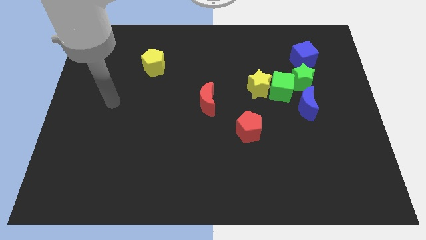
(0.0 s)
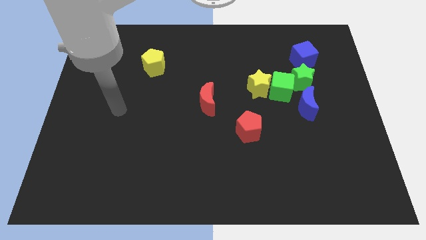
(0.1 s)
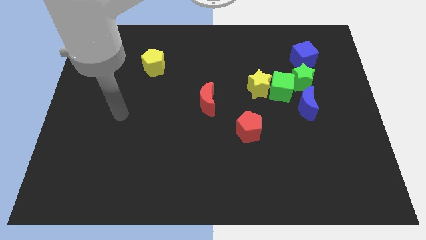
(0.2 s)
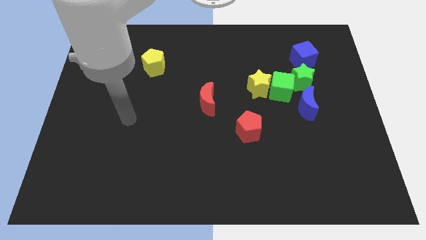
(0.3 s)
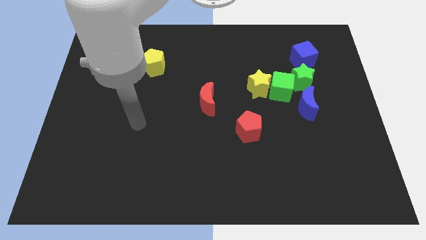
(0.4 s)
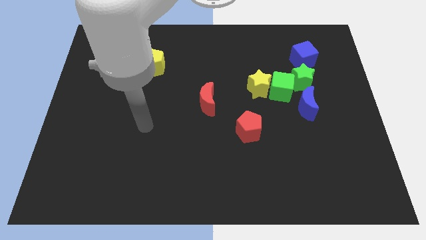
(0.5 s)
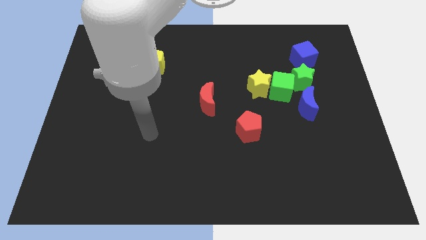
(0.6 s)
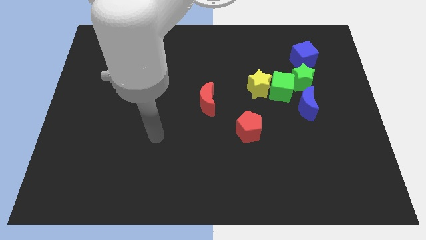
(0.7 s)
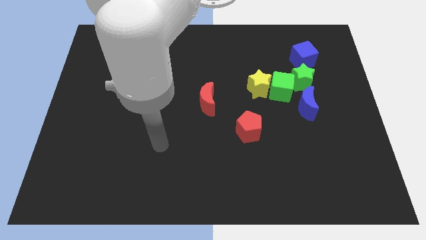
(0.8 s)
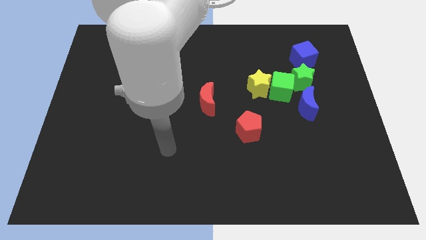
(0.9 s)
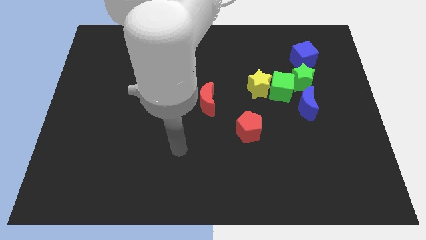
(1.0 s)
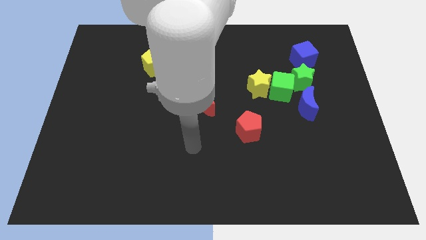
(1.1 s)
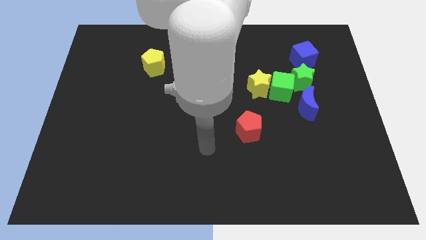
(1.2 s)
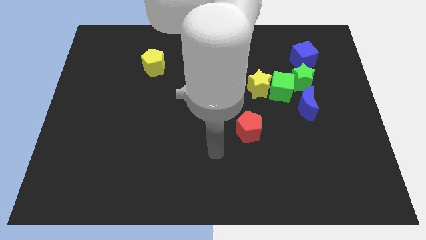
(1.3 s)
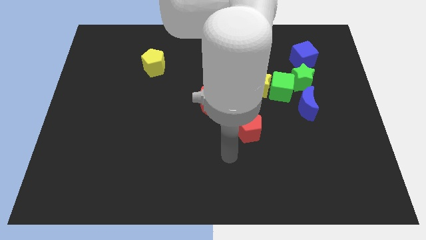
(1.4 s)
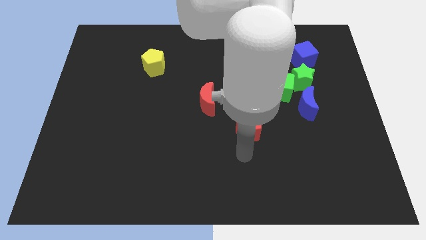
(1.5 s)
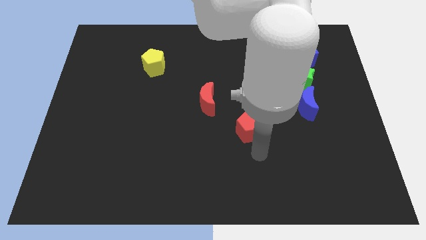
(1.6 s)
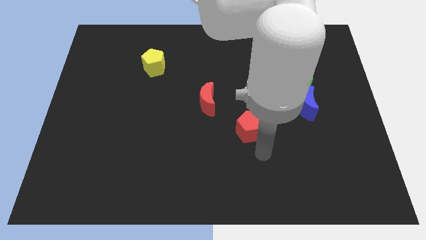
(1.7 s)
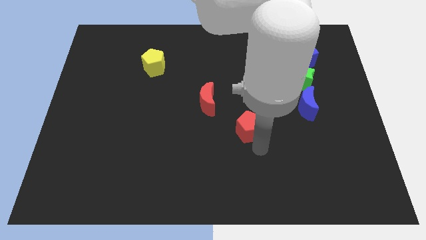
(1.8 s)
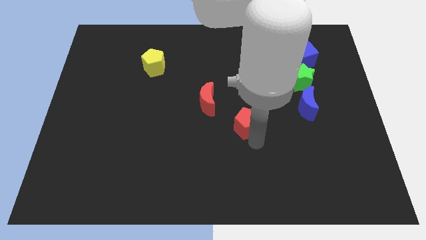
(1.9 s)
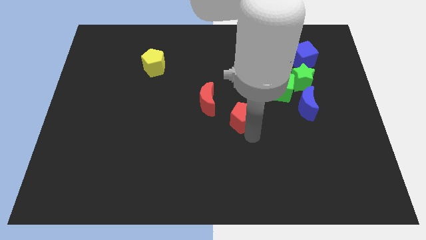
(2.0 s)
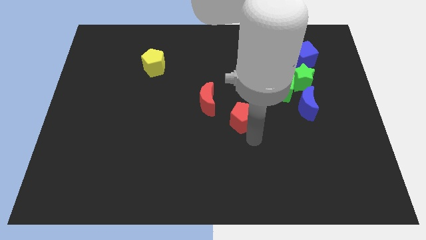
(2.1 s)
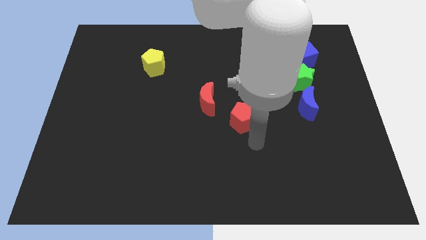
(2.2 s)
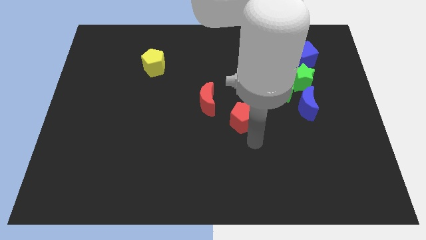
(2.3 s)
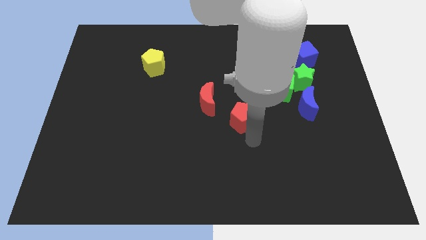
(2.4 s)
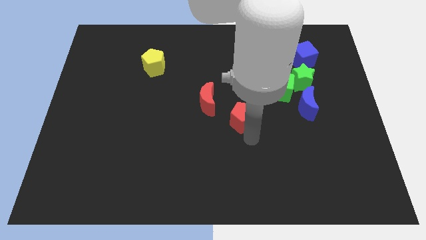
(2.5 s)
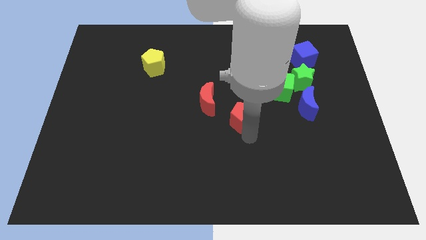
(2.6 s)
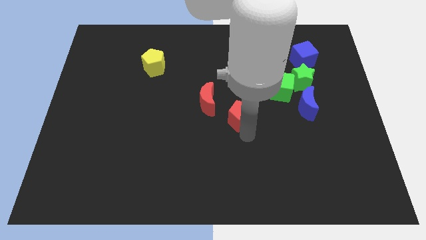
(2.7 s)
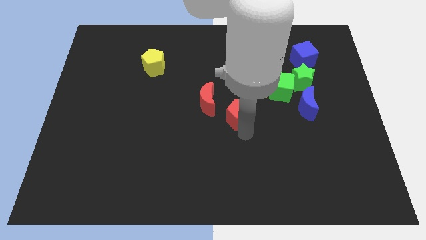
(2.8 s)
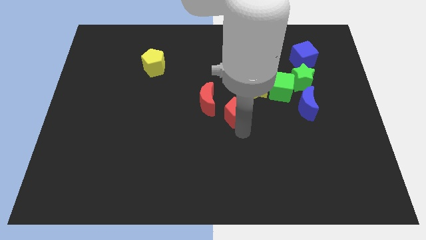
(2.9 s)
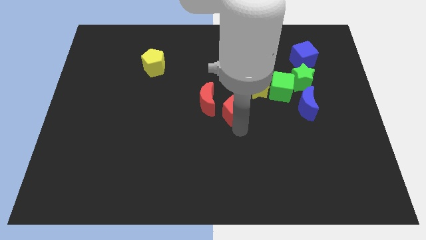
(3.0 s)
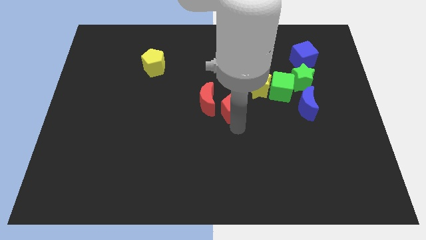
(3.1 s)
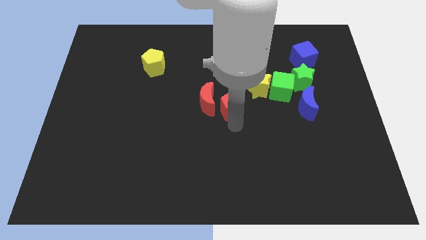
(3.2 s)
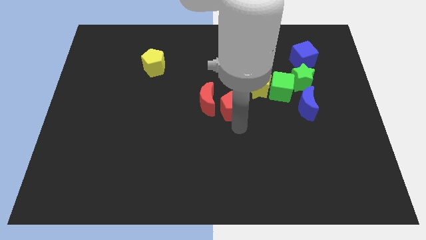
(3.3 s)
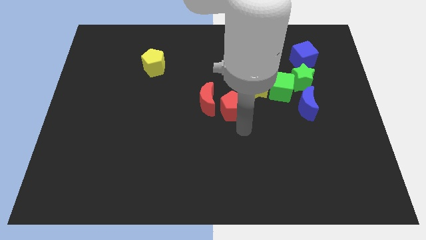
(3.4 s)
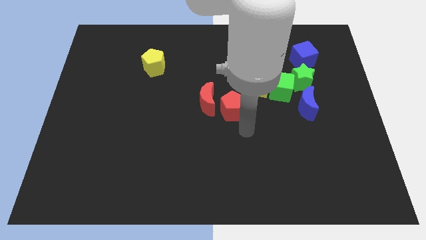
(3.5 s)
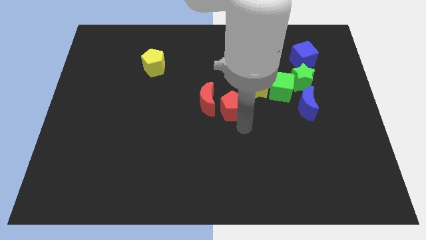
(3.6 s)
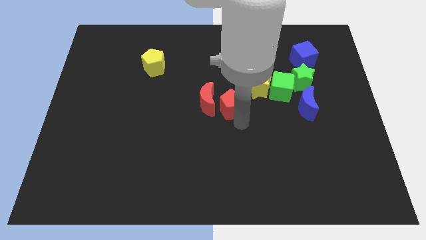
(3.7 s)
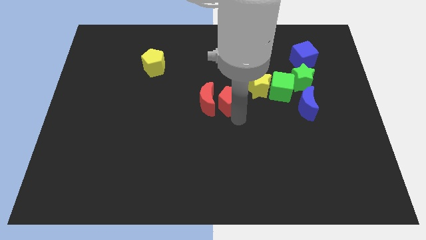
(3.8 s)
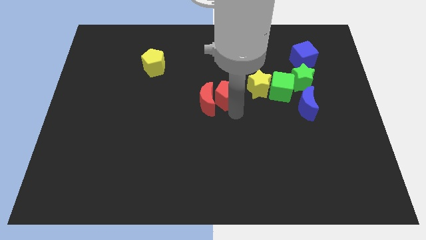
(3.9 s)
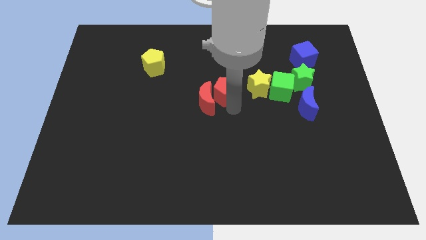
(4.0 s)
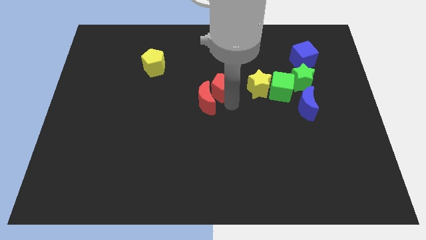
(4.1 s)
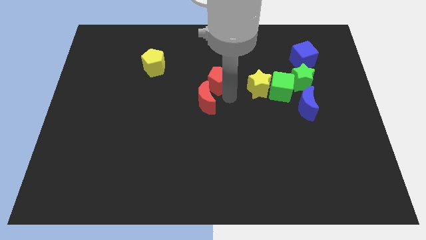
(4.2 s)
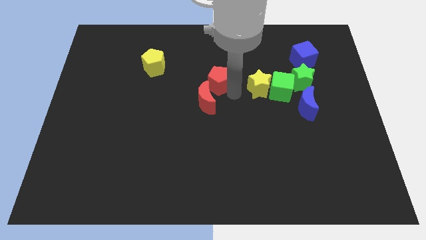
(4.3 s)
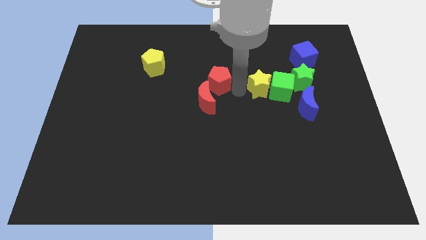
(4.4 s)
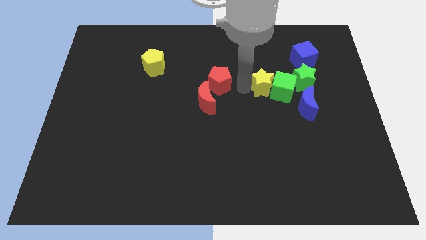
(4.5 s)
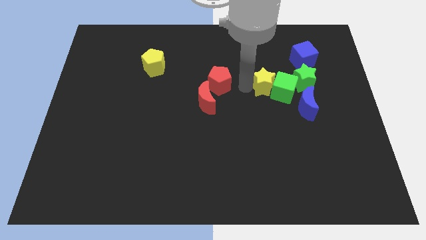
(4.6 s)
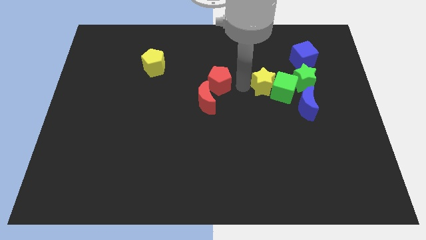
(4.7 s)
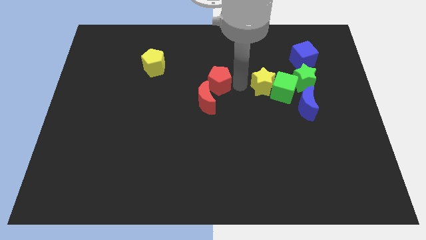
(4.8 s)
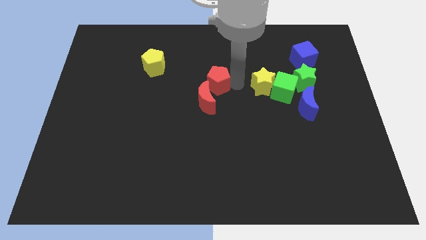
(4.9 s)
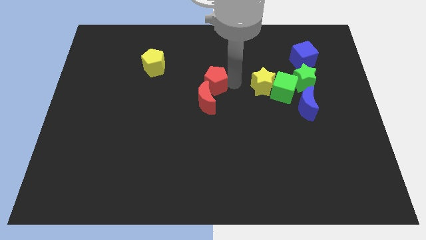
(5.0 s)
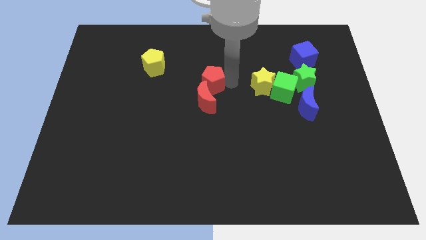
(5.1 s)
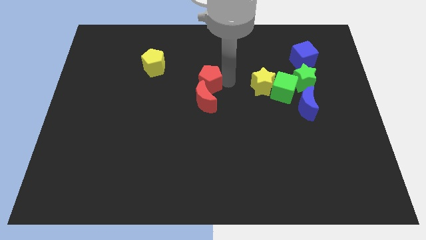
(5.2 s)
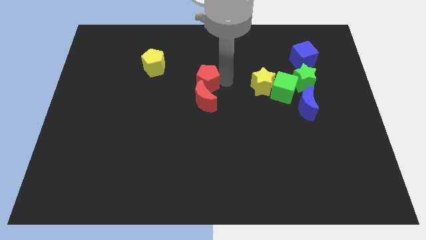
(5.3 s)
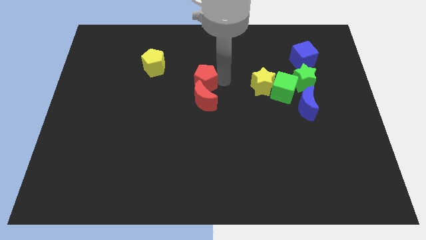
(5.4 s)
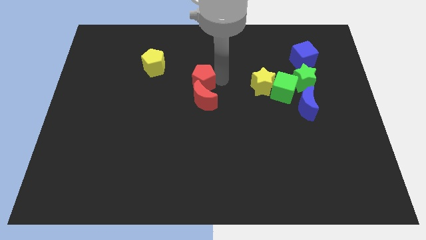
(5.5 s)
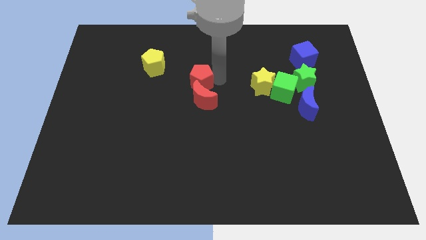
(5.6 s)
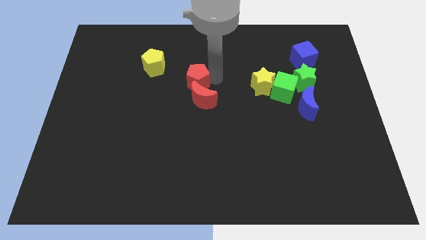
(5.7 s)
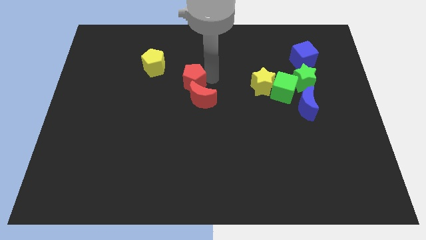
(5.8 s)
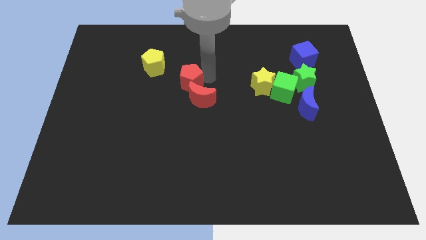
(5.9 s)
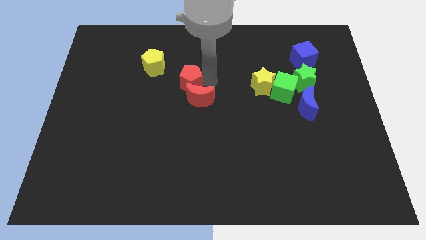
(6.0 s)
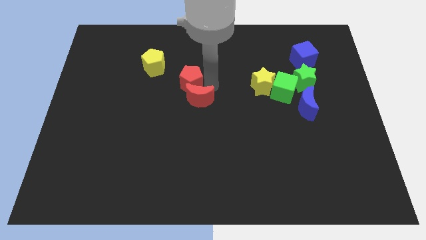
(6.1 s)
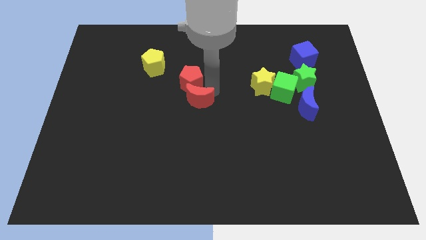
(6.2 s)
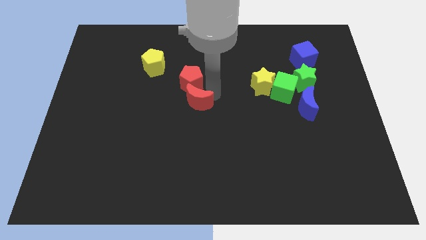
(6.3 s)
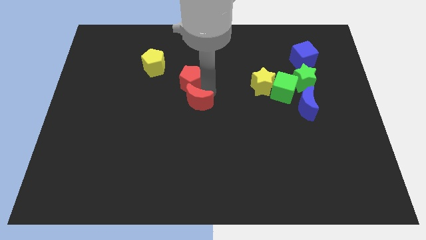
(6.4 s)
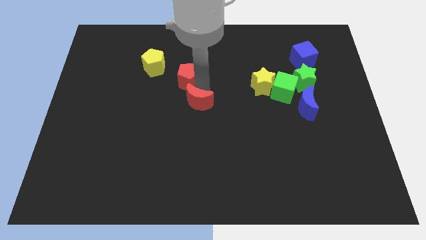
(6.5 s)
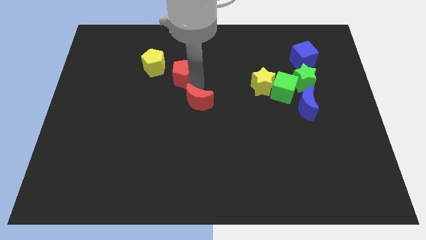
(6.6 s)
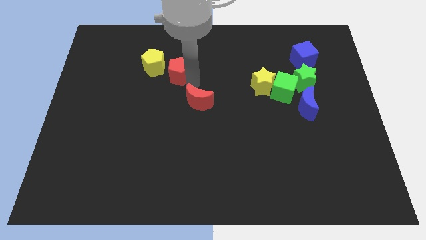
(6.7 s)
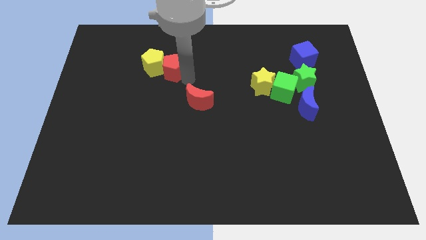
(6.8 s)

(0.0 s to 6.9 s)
slide the red pentagon towards the yellow pentagon
